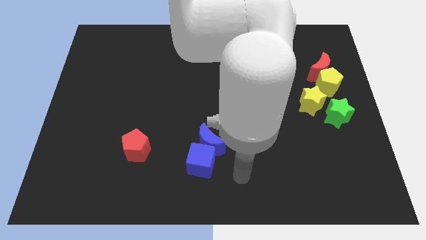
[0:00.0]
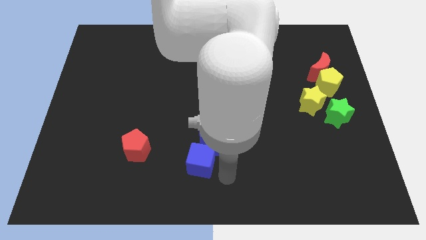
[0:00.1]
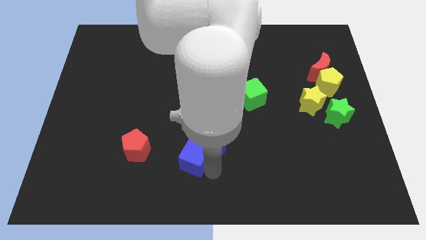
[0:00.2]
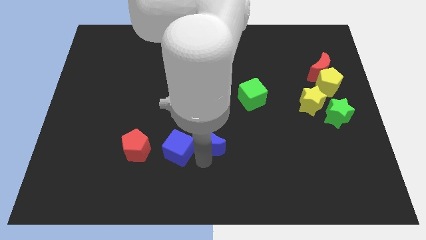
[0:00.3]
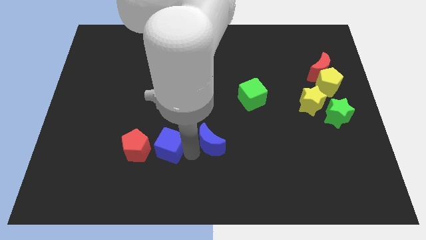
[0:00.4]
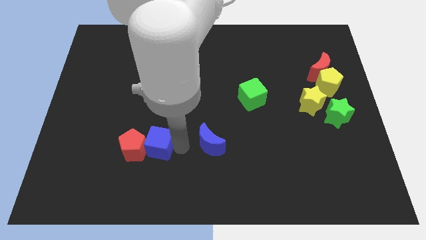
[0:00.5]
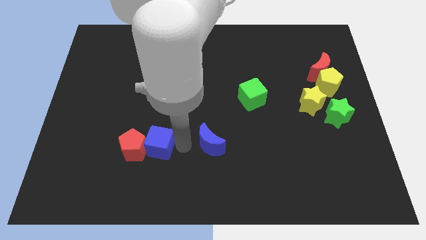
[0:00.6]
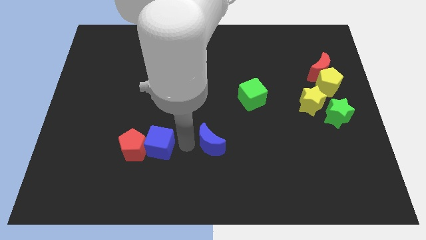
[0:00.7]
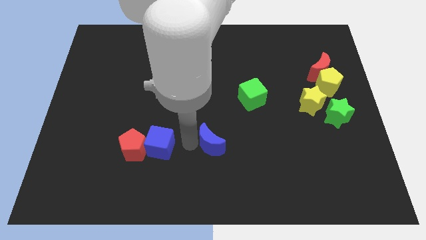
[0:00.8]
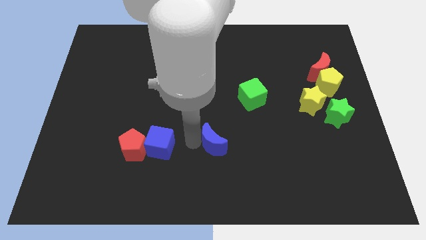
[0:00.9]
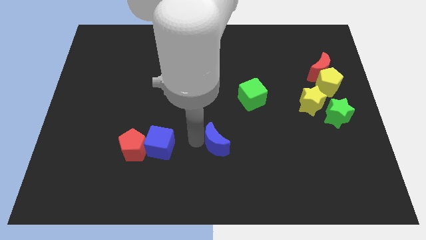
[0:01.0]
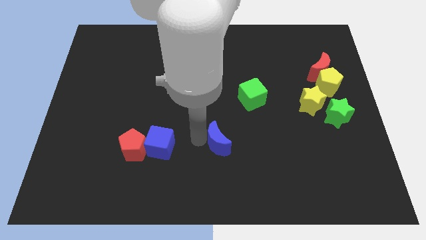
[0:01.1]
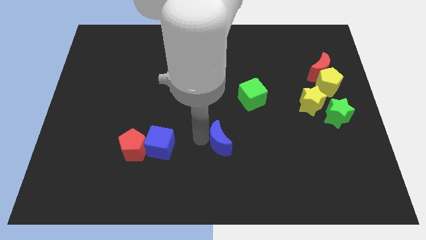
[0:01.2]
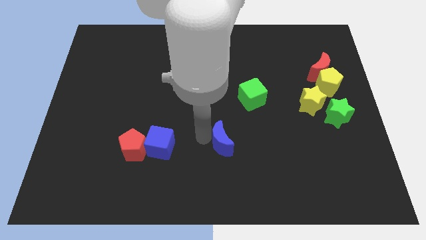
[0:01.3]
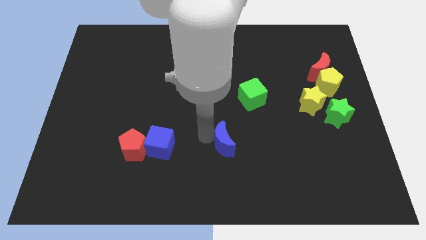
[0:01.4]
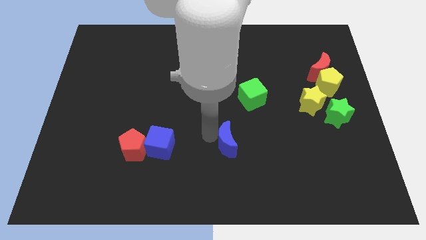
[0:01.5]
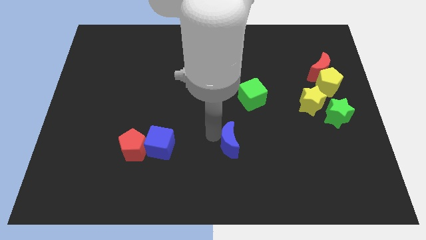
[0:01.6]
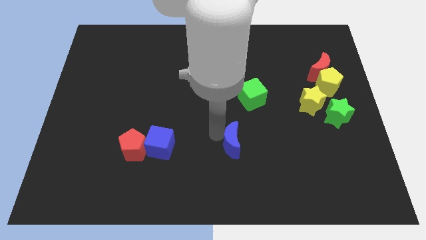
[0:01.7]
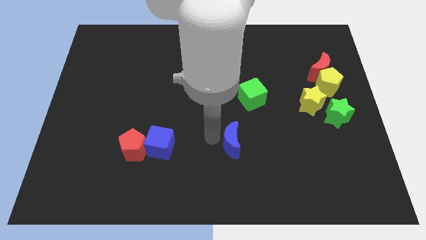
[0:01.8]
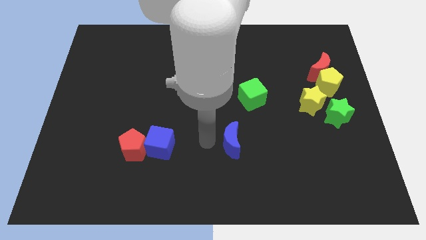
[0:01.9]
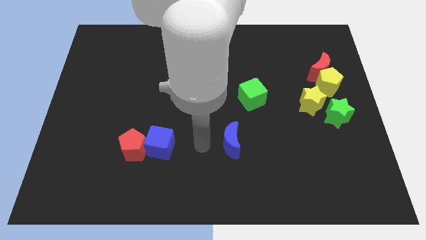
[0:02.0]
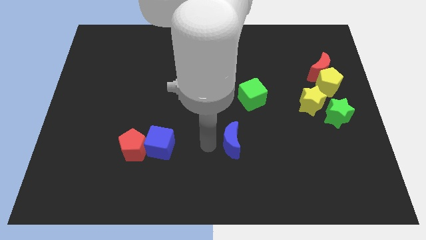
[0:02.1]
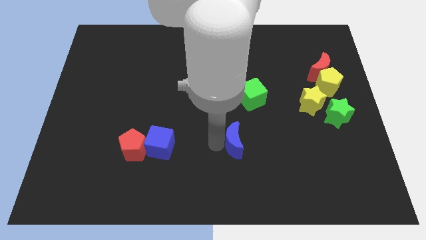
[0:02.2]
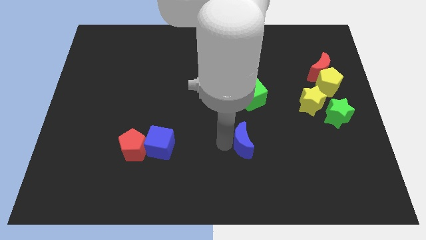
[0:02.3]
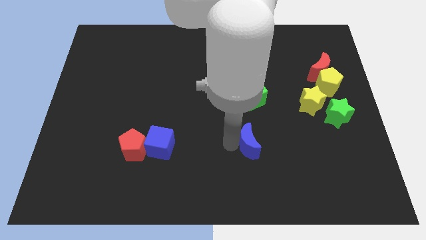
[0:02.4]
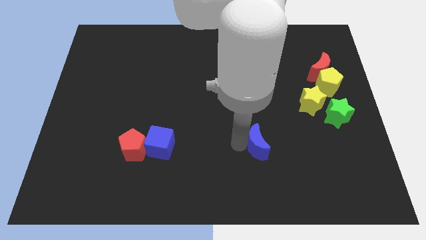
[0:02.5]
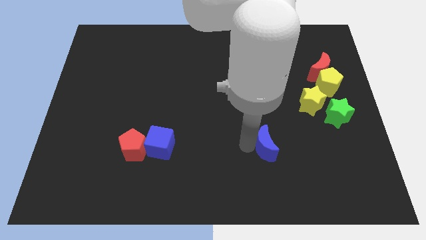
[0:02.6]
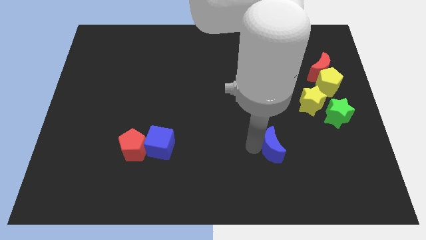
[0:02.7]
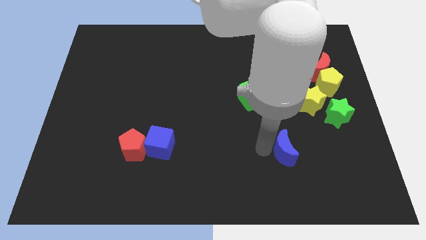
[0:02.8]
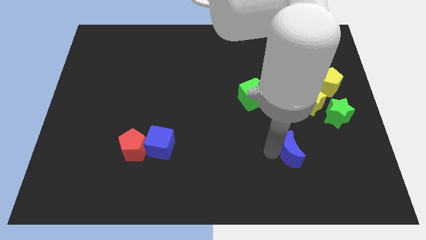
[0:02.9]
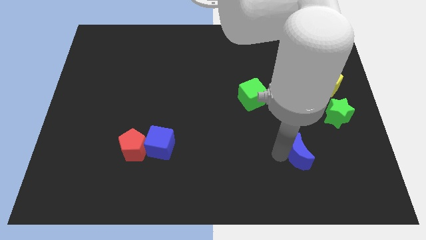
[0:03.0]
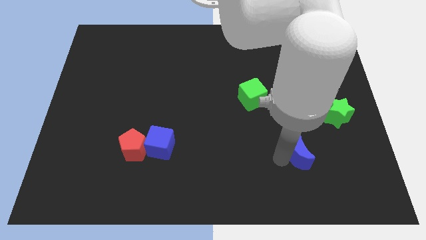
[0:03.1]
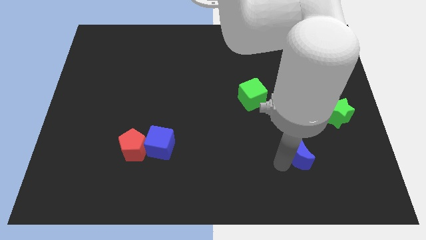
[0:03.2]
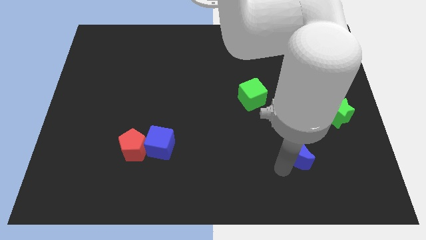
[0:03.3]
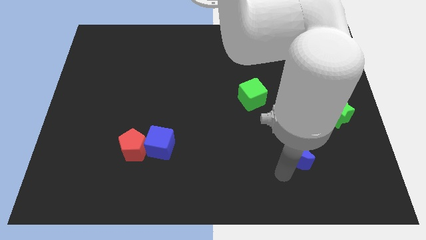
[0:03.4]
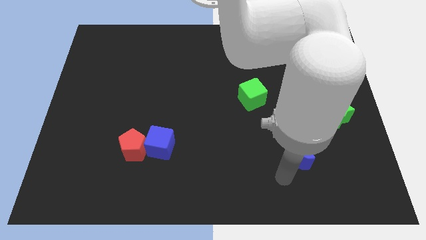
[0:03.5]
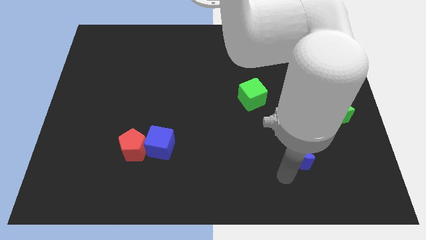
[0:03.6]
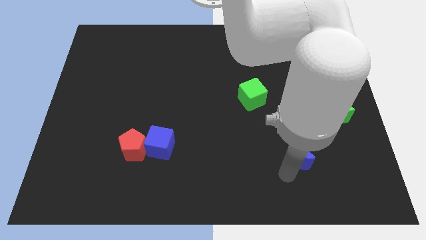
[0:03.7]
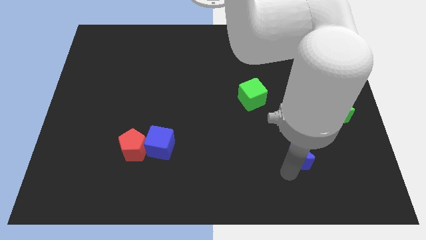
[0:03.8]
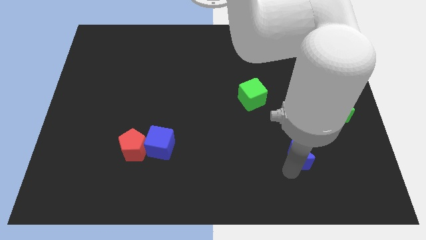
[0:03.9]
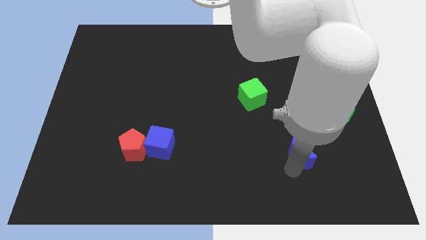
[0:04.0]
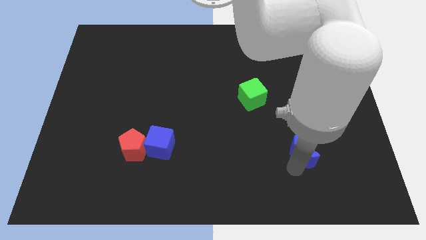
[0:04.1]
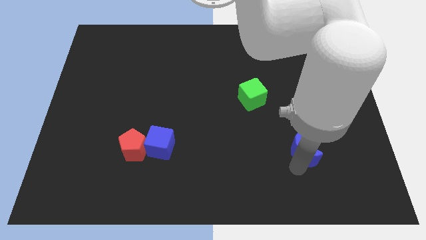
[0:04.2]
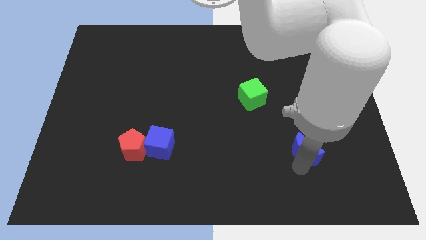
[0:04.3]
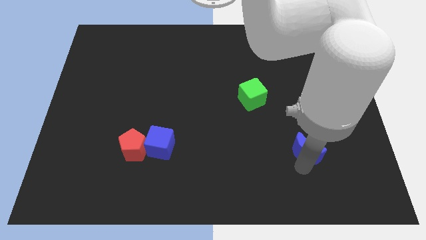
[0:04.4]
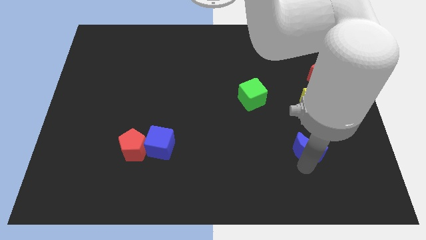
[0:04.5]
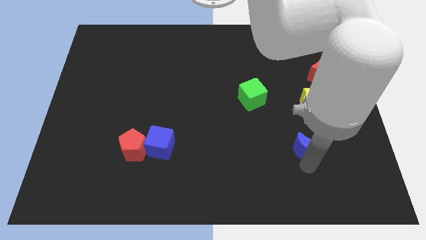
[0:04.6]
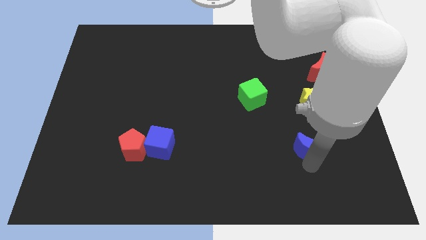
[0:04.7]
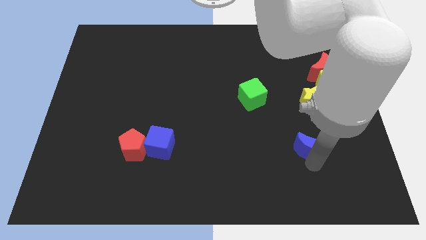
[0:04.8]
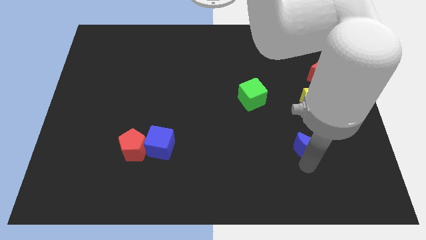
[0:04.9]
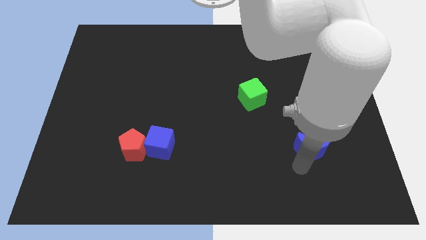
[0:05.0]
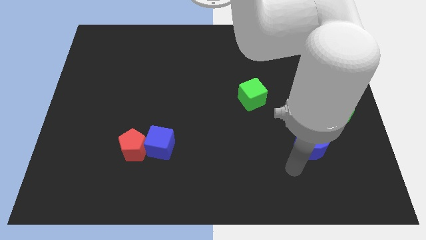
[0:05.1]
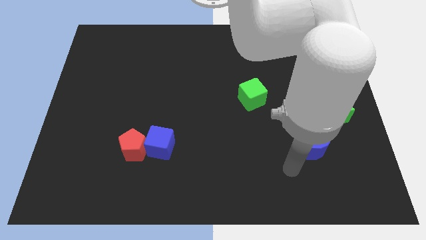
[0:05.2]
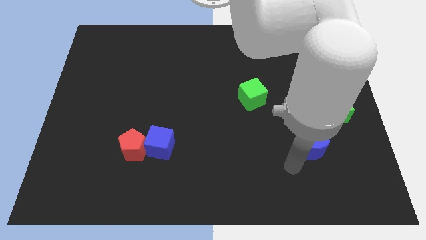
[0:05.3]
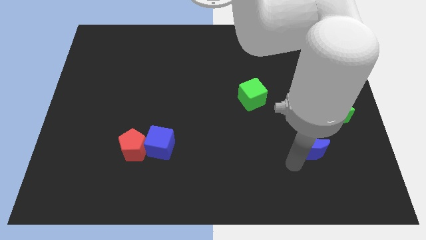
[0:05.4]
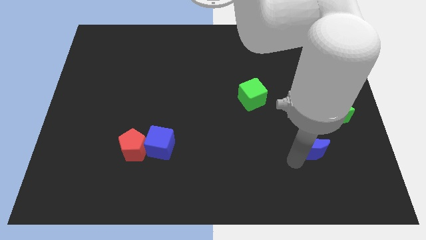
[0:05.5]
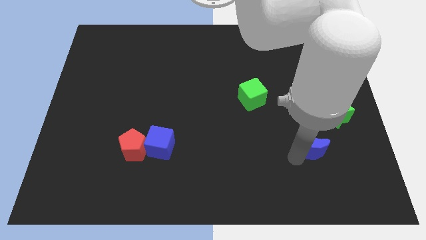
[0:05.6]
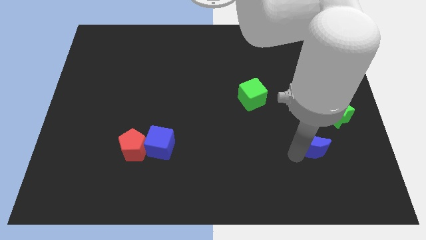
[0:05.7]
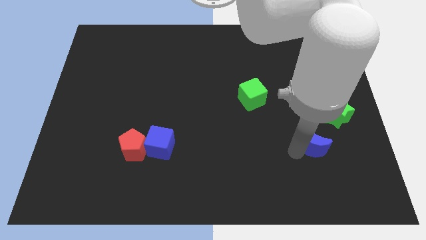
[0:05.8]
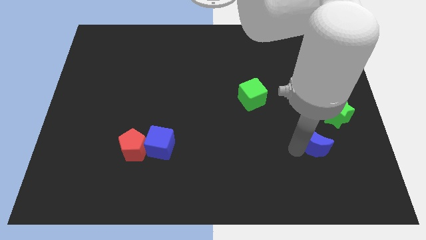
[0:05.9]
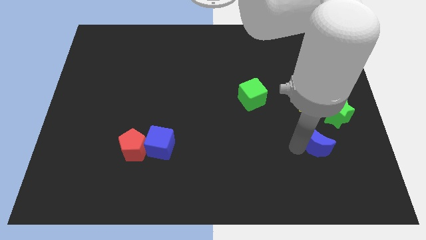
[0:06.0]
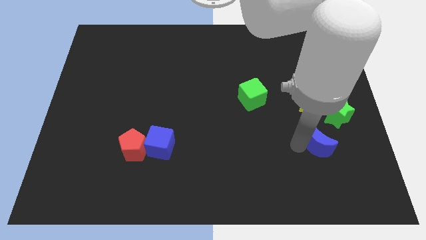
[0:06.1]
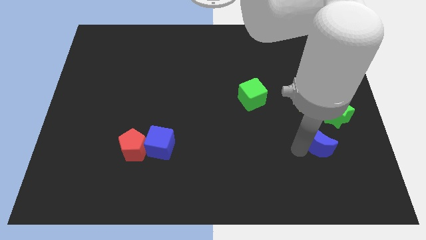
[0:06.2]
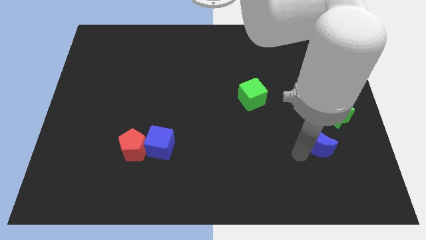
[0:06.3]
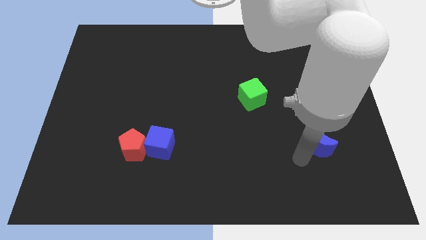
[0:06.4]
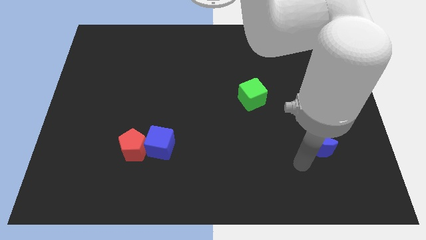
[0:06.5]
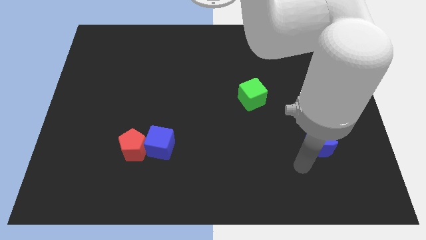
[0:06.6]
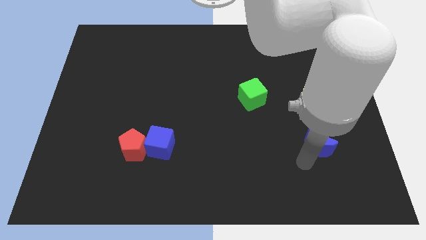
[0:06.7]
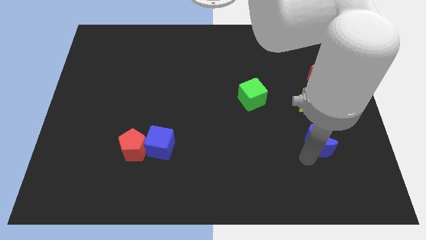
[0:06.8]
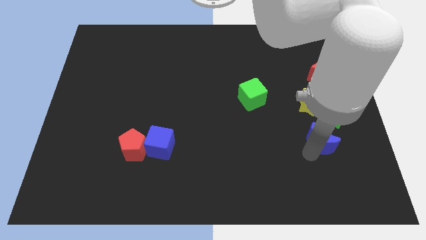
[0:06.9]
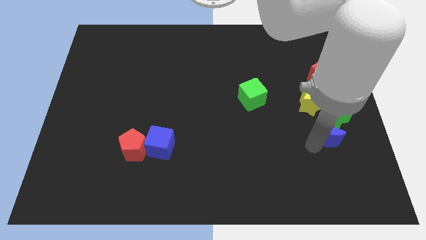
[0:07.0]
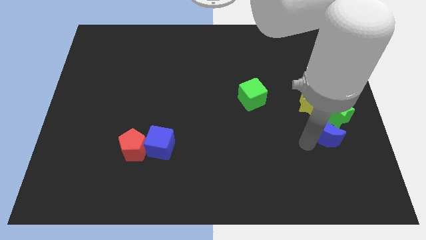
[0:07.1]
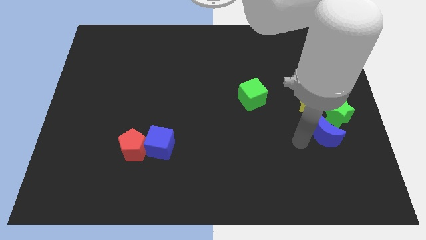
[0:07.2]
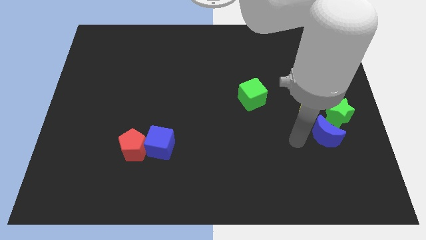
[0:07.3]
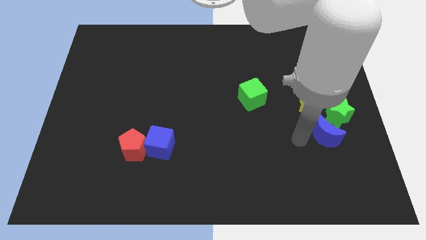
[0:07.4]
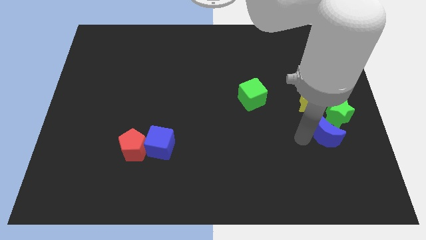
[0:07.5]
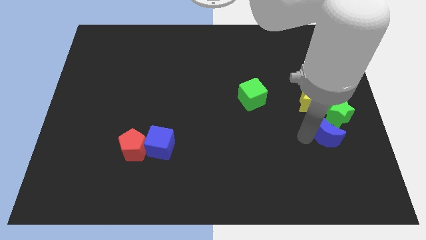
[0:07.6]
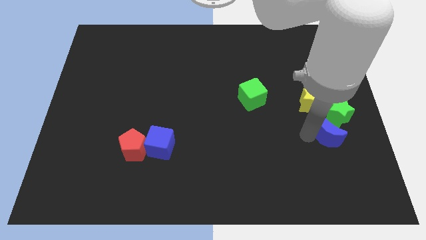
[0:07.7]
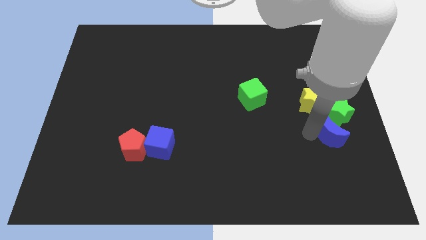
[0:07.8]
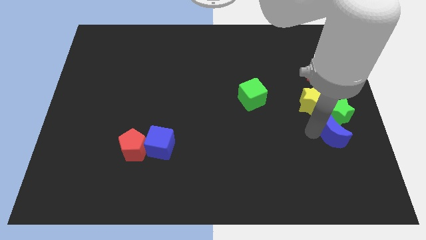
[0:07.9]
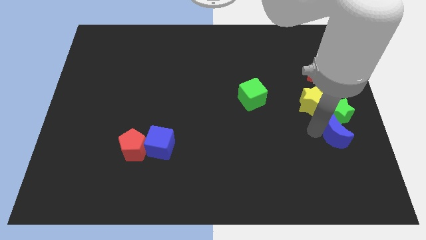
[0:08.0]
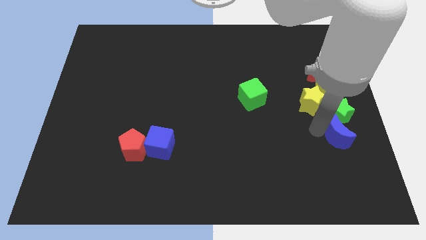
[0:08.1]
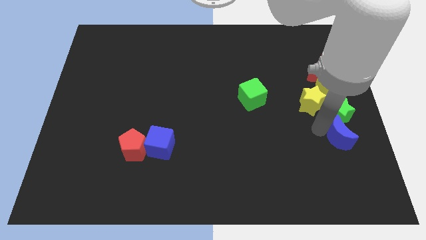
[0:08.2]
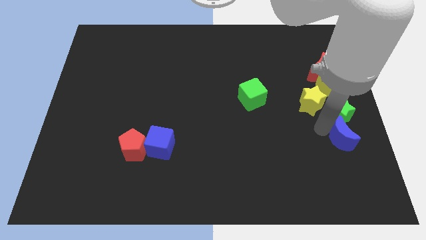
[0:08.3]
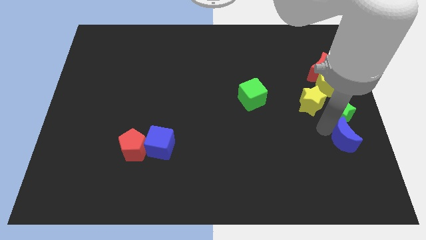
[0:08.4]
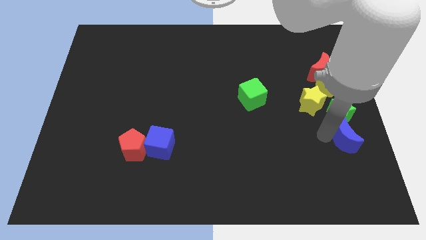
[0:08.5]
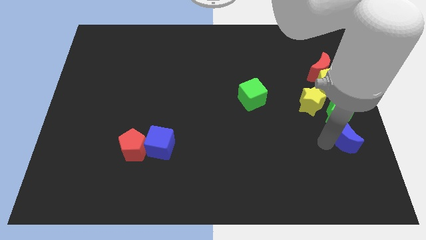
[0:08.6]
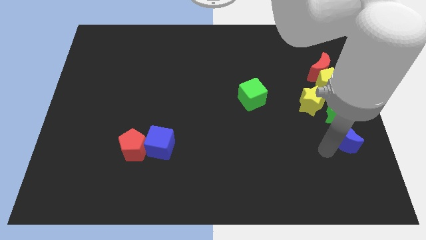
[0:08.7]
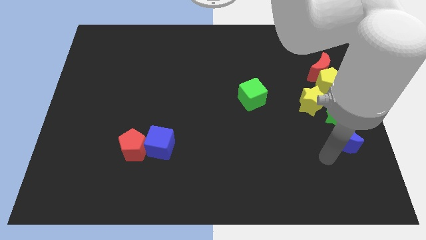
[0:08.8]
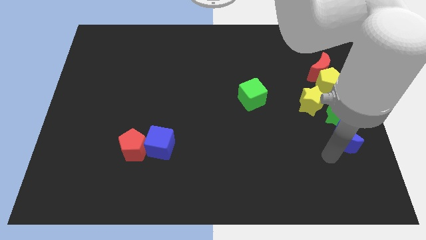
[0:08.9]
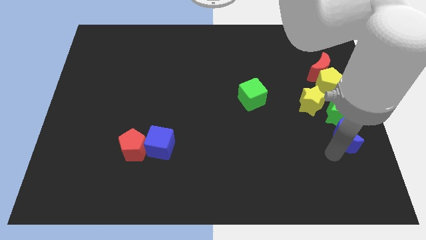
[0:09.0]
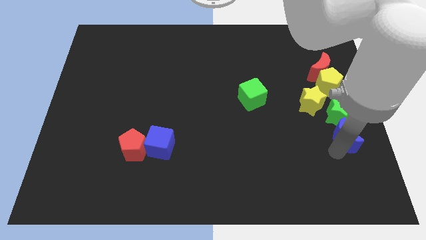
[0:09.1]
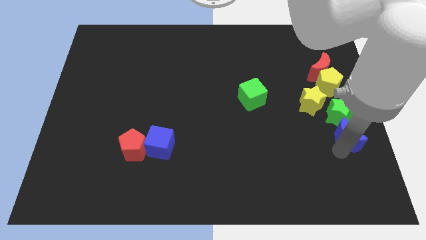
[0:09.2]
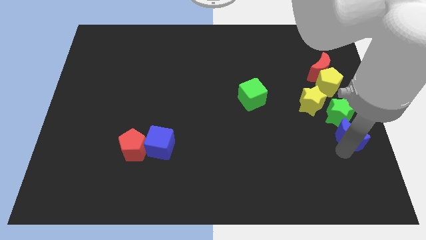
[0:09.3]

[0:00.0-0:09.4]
move the blue moon to the right side
